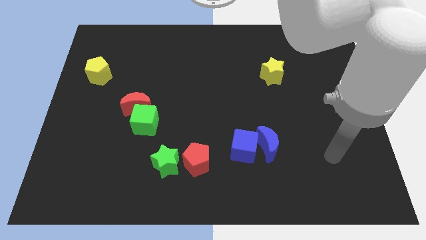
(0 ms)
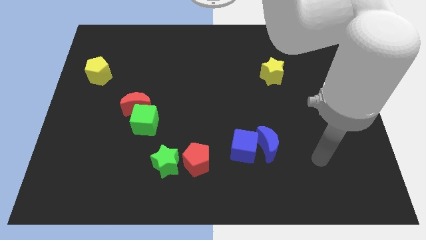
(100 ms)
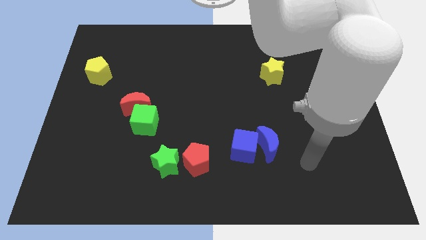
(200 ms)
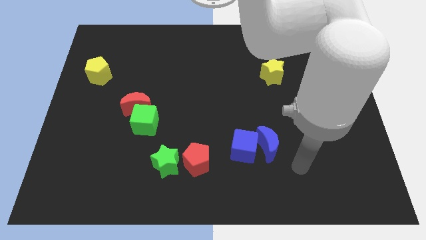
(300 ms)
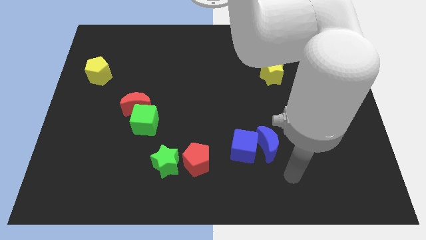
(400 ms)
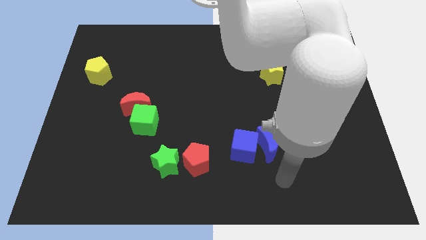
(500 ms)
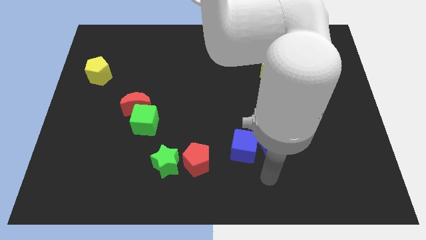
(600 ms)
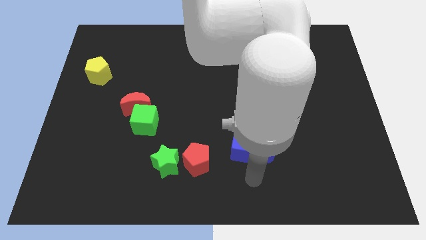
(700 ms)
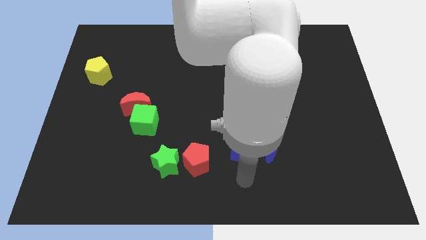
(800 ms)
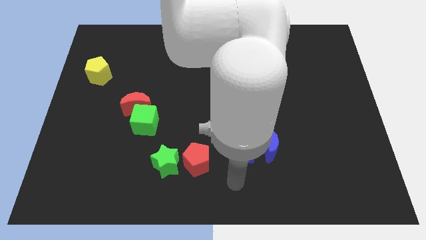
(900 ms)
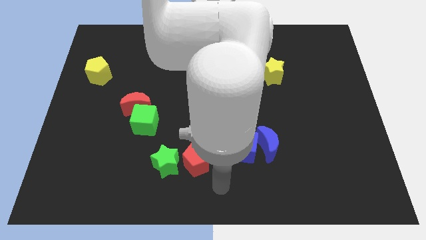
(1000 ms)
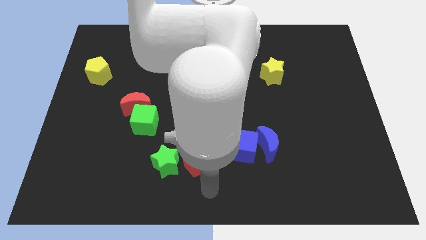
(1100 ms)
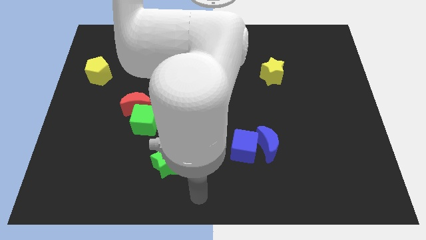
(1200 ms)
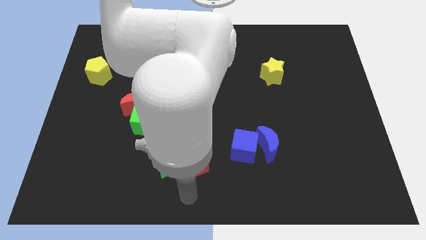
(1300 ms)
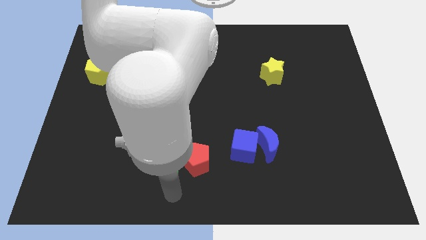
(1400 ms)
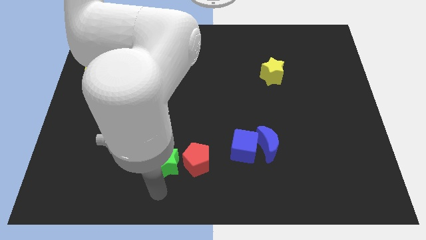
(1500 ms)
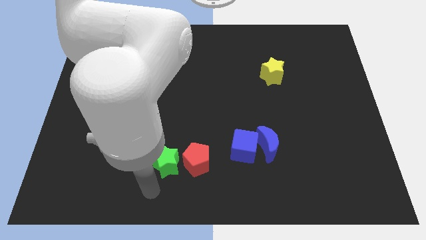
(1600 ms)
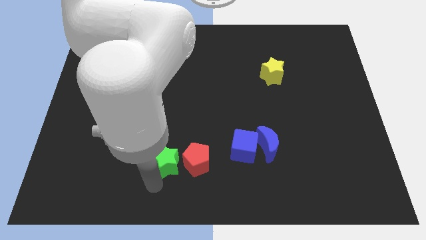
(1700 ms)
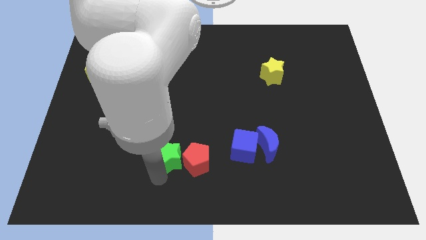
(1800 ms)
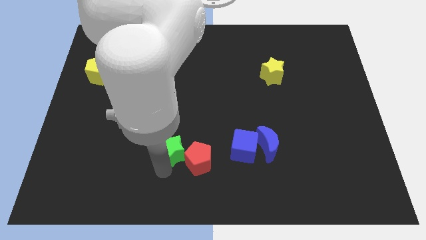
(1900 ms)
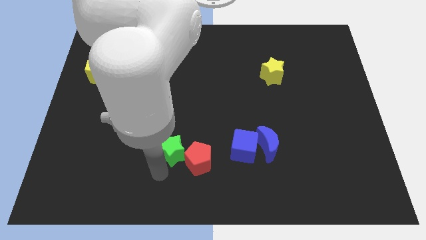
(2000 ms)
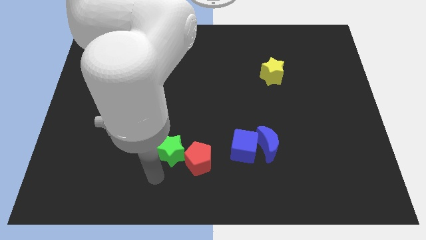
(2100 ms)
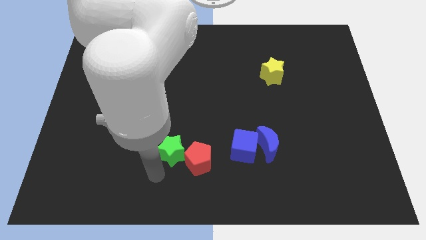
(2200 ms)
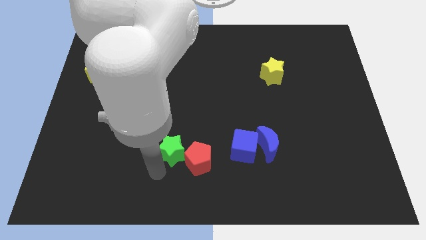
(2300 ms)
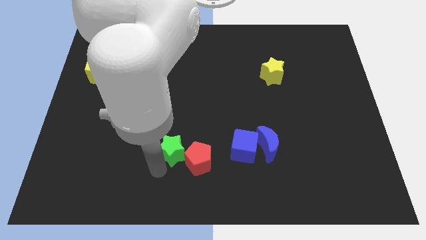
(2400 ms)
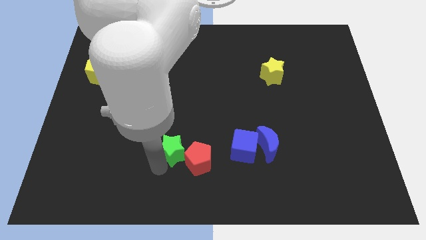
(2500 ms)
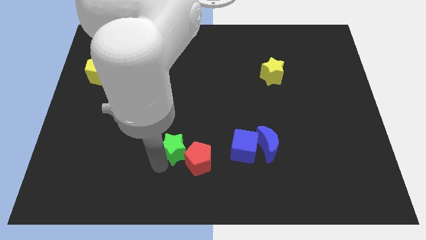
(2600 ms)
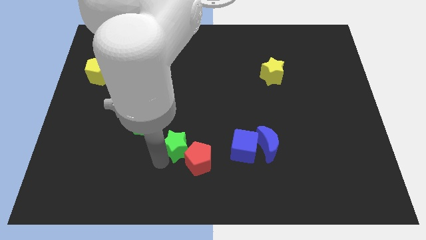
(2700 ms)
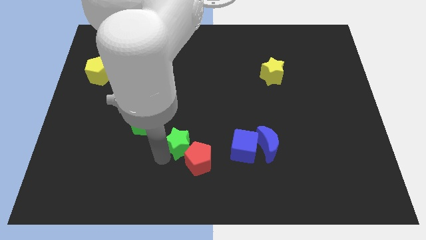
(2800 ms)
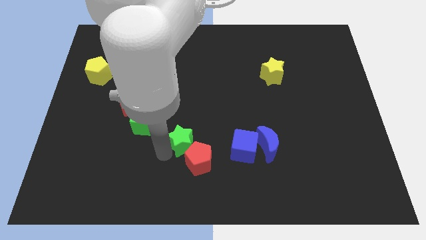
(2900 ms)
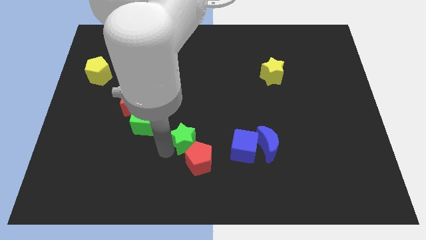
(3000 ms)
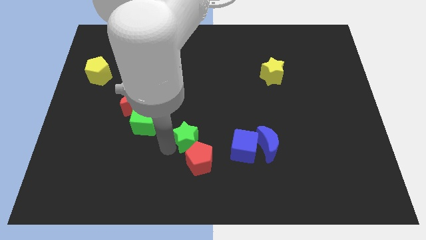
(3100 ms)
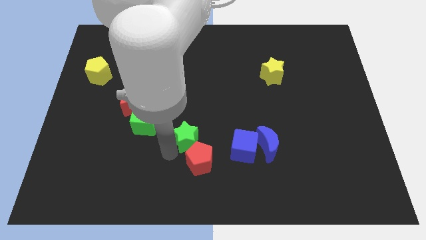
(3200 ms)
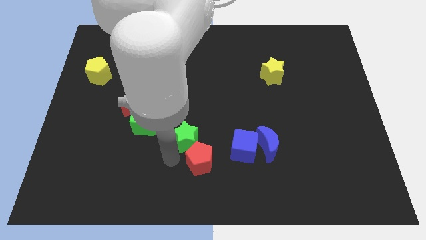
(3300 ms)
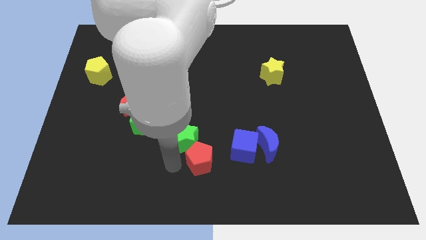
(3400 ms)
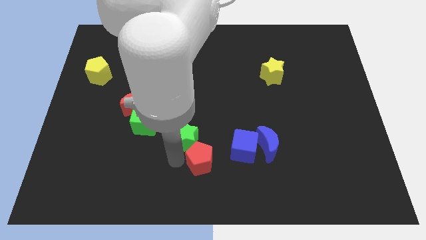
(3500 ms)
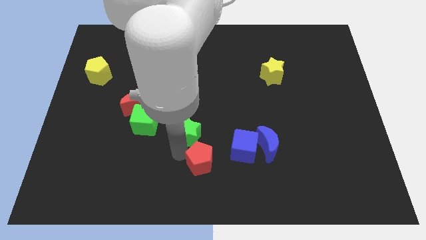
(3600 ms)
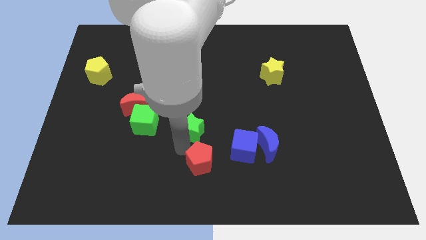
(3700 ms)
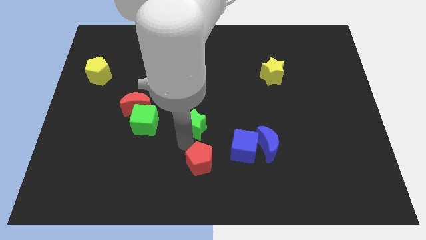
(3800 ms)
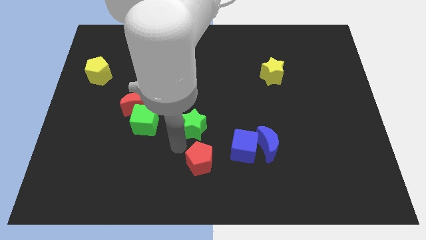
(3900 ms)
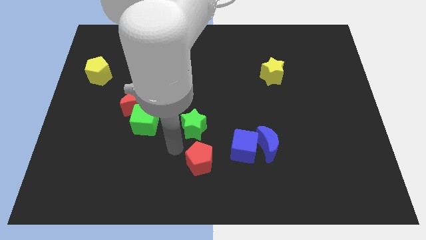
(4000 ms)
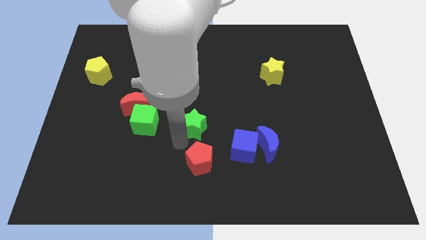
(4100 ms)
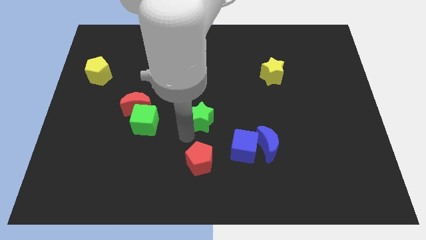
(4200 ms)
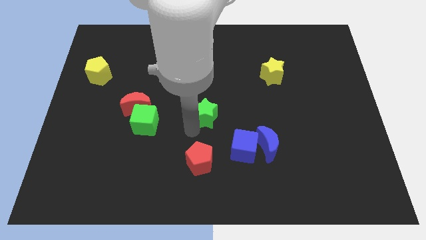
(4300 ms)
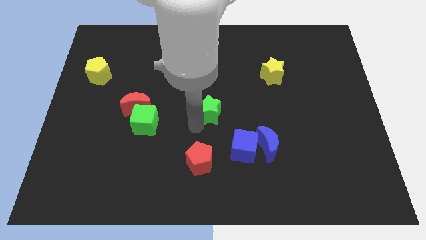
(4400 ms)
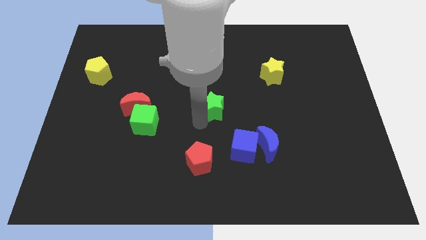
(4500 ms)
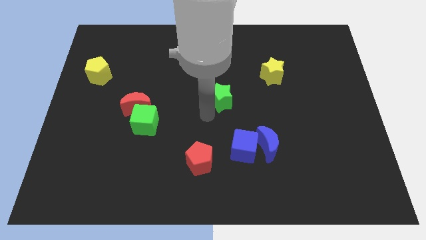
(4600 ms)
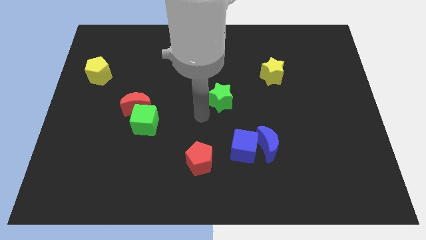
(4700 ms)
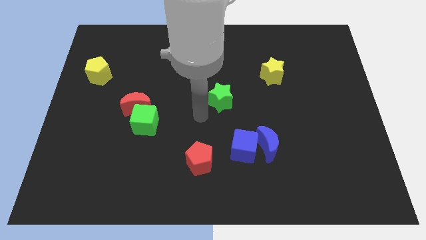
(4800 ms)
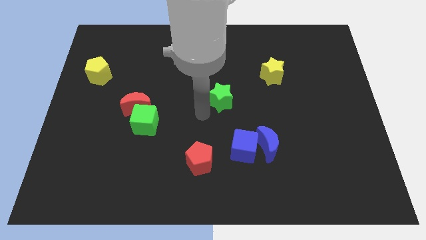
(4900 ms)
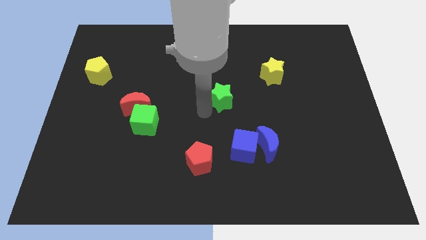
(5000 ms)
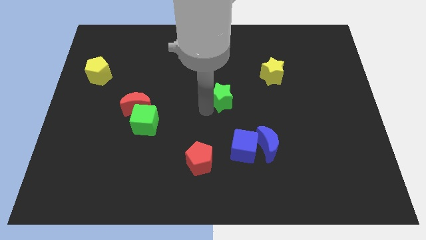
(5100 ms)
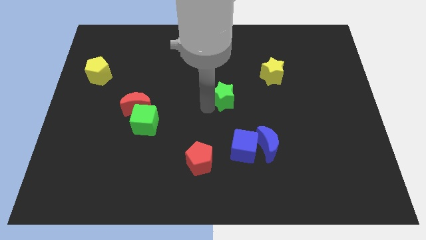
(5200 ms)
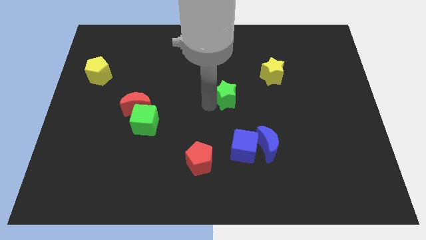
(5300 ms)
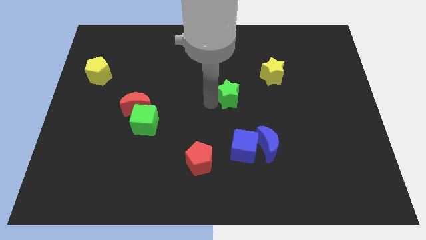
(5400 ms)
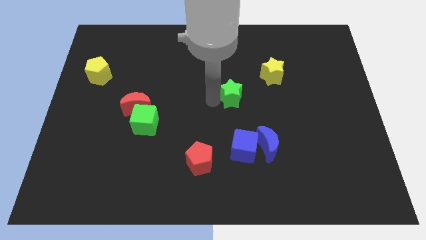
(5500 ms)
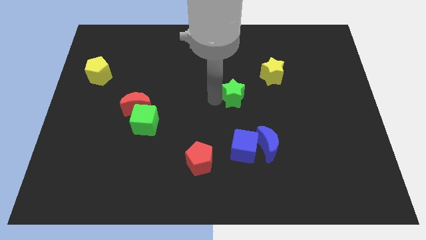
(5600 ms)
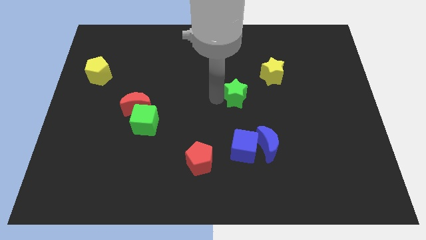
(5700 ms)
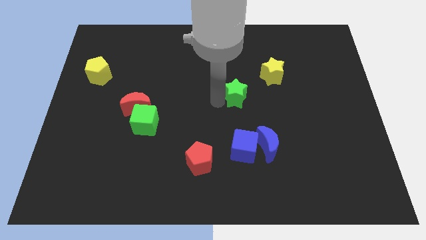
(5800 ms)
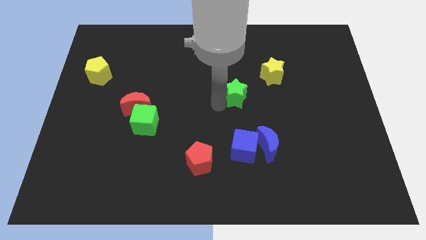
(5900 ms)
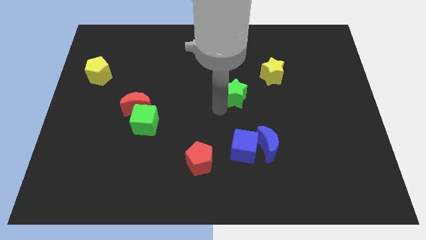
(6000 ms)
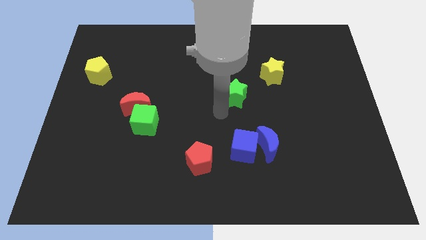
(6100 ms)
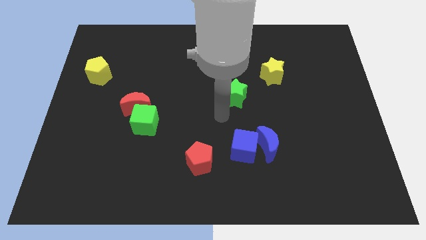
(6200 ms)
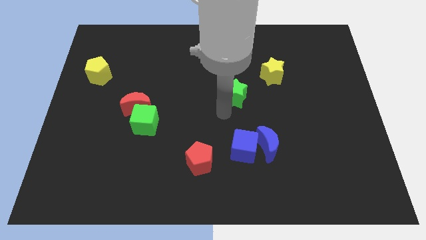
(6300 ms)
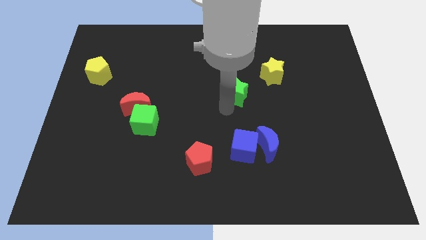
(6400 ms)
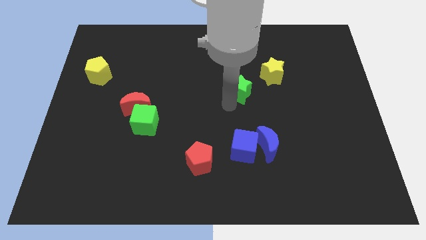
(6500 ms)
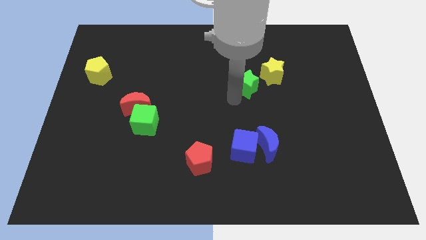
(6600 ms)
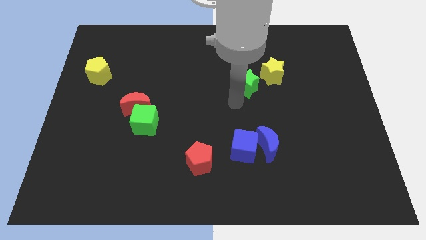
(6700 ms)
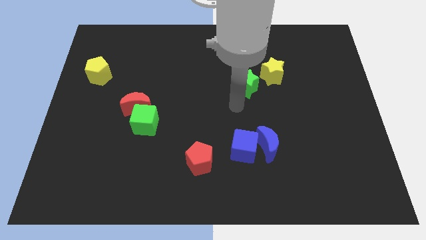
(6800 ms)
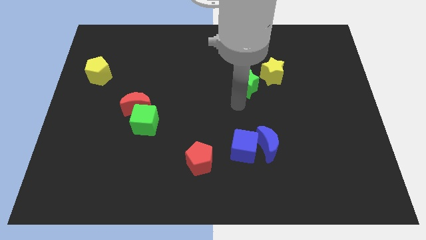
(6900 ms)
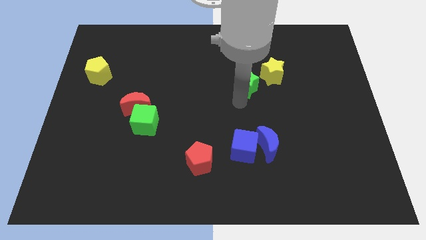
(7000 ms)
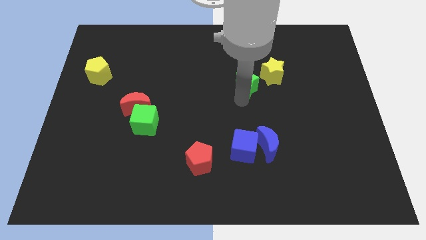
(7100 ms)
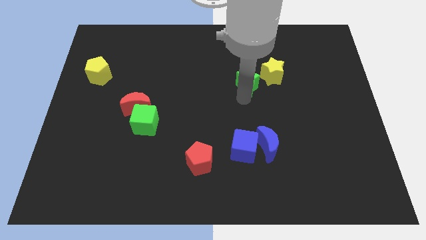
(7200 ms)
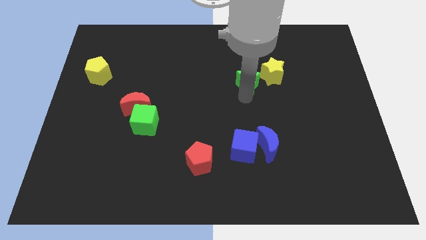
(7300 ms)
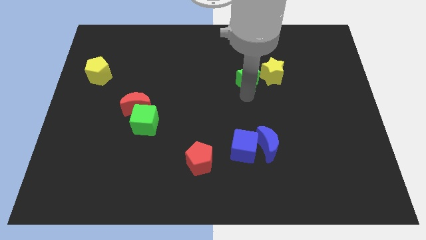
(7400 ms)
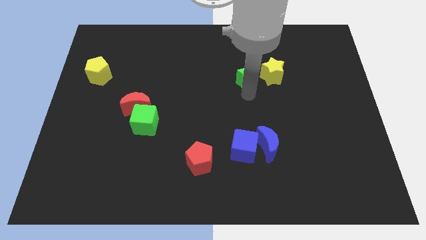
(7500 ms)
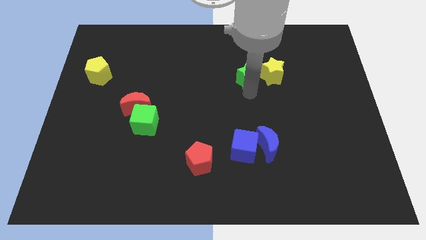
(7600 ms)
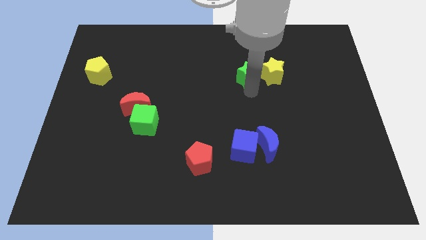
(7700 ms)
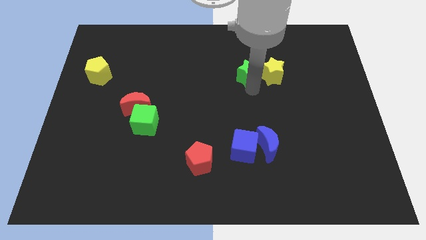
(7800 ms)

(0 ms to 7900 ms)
move the green star diagonally up and to the left of the yellow star
